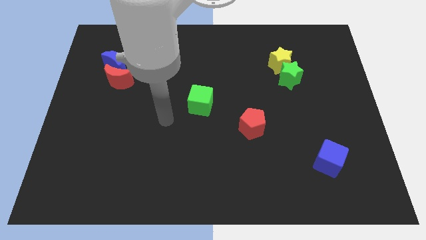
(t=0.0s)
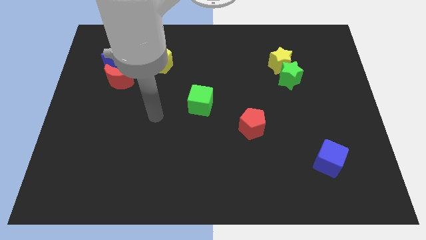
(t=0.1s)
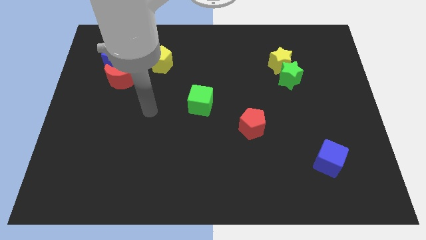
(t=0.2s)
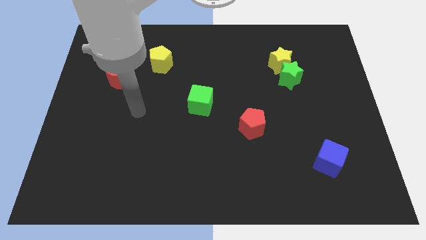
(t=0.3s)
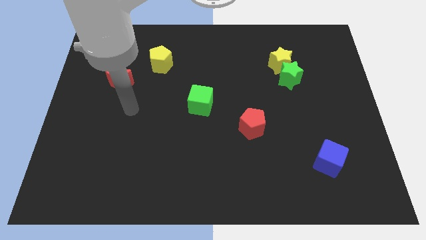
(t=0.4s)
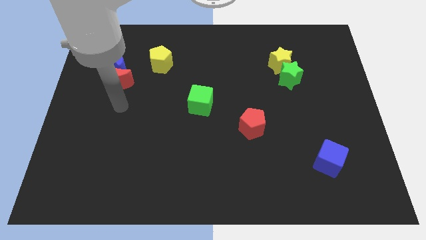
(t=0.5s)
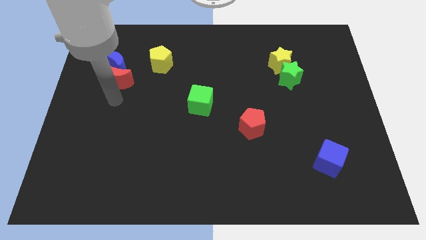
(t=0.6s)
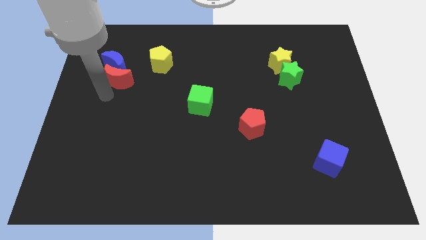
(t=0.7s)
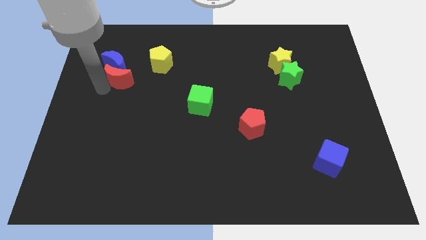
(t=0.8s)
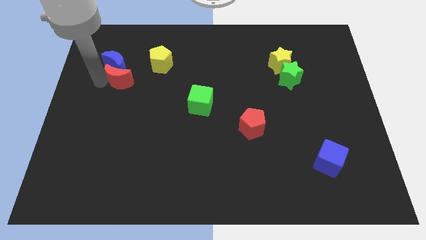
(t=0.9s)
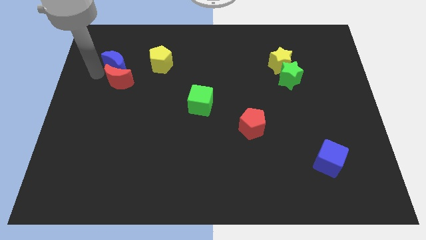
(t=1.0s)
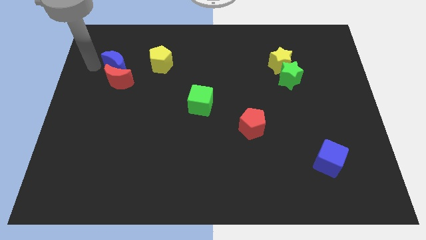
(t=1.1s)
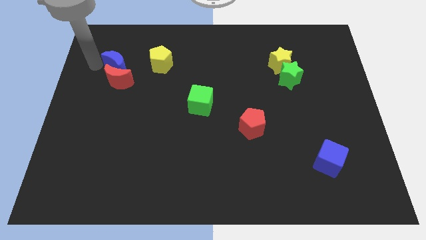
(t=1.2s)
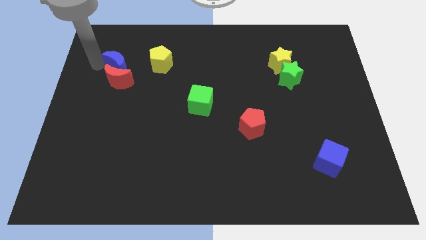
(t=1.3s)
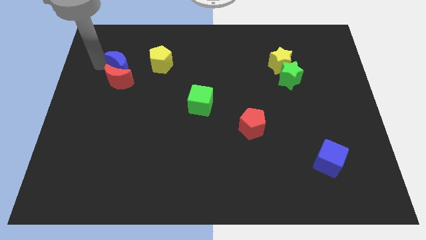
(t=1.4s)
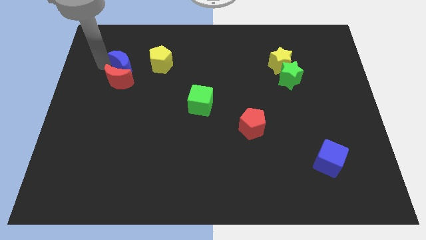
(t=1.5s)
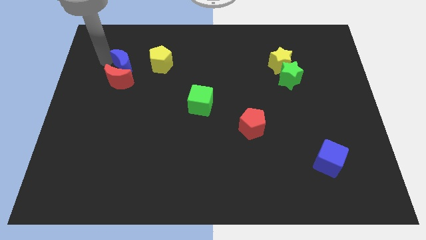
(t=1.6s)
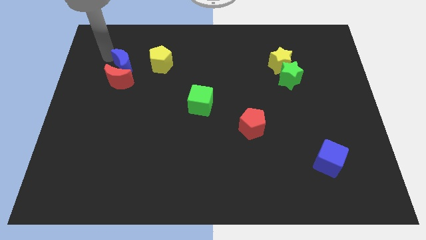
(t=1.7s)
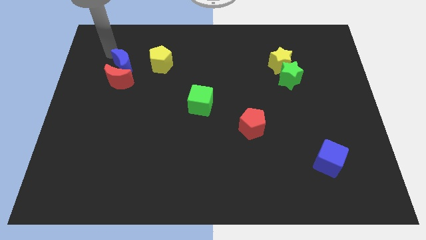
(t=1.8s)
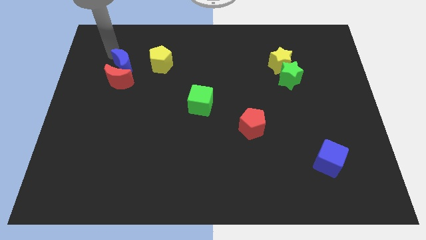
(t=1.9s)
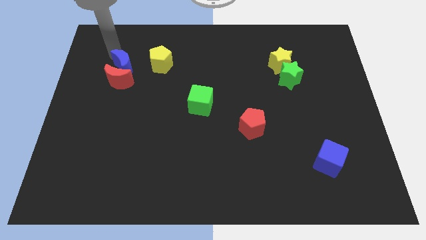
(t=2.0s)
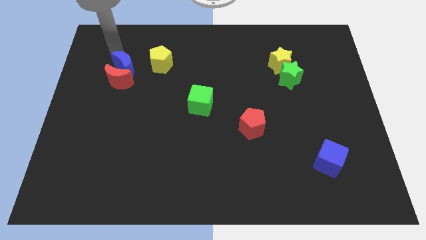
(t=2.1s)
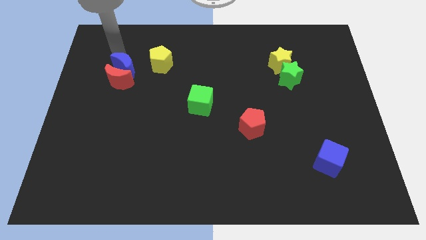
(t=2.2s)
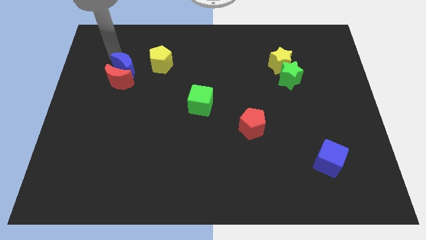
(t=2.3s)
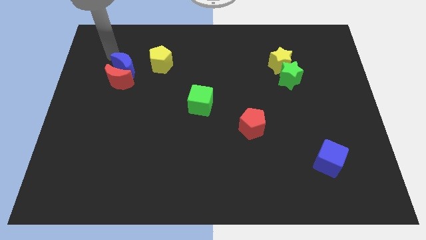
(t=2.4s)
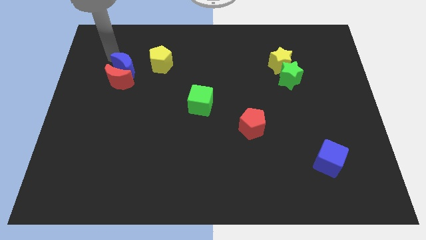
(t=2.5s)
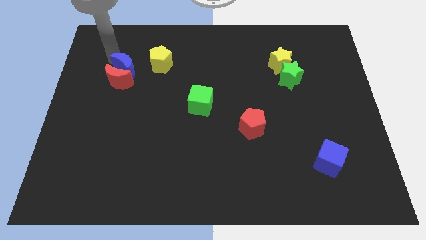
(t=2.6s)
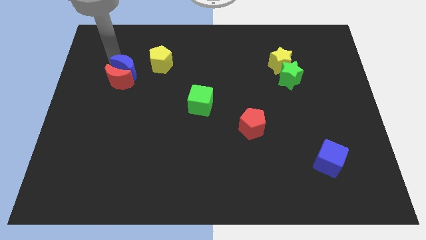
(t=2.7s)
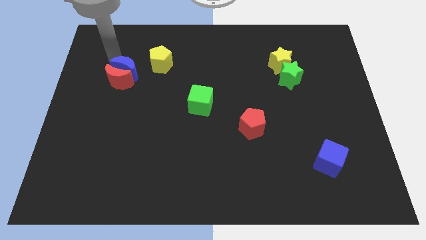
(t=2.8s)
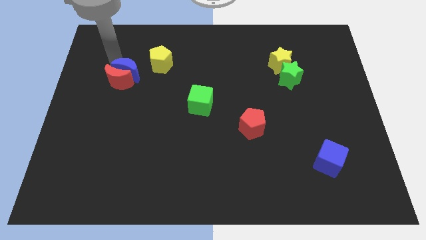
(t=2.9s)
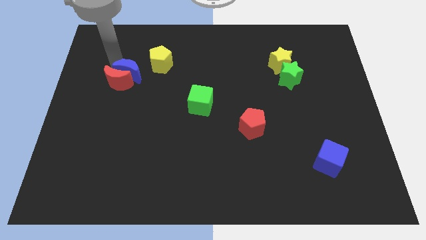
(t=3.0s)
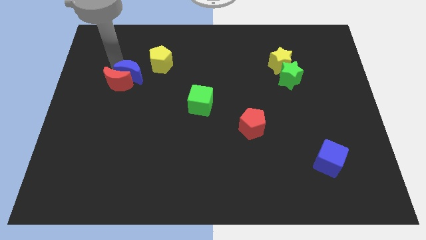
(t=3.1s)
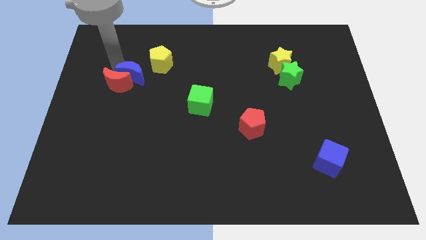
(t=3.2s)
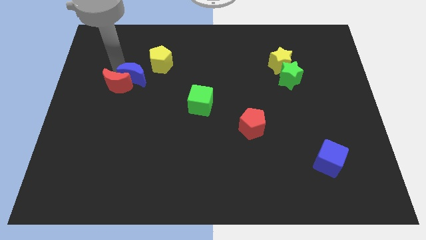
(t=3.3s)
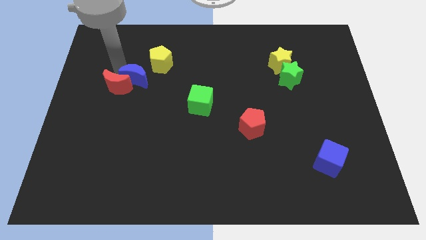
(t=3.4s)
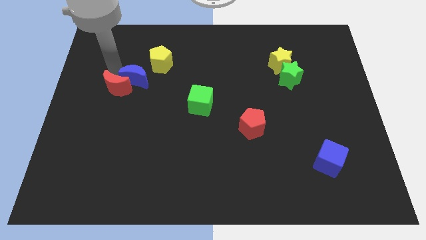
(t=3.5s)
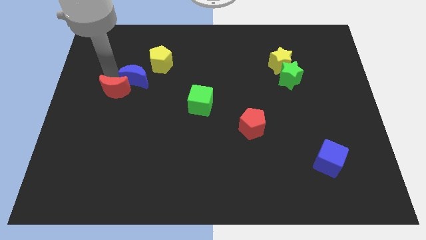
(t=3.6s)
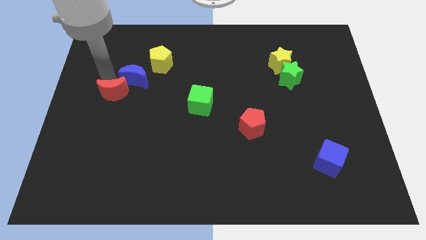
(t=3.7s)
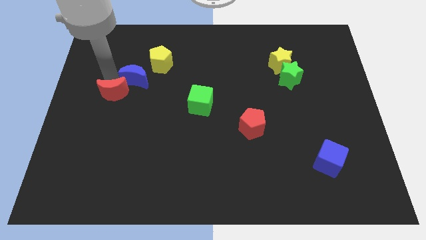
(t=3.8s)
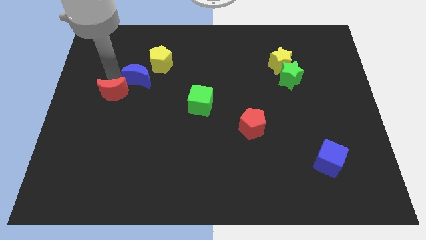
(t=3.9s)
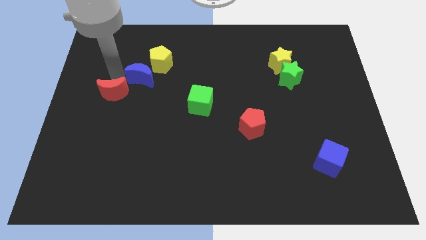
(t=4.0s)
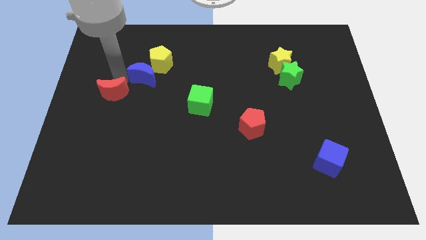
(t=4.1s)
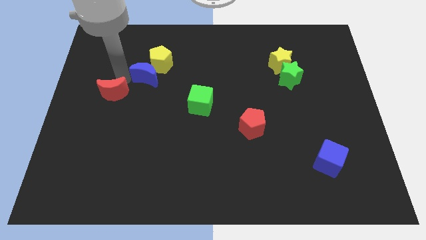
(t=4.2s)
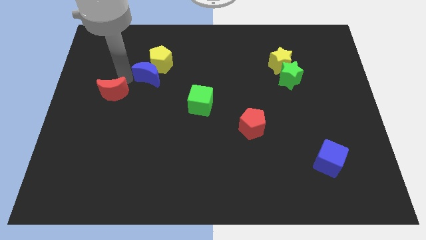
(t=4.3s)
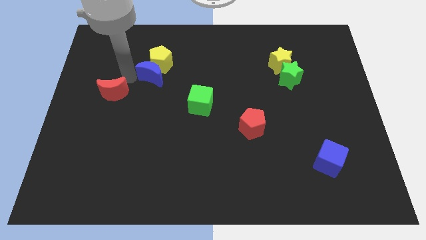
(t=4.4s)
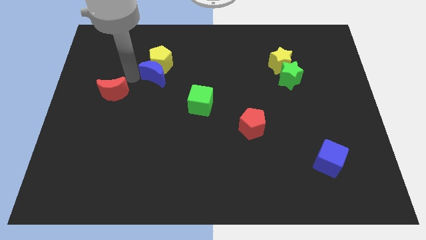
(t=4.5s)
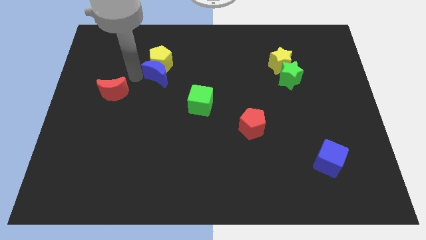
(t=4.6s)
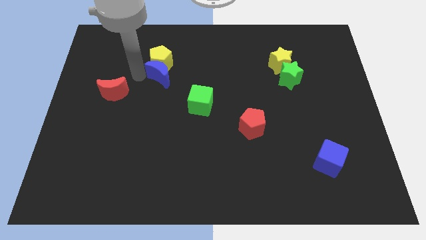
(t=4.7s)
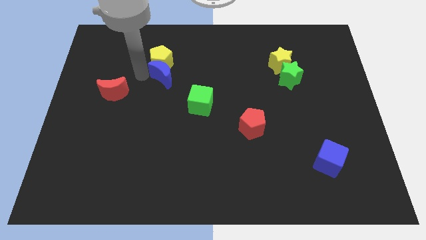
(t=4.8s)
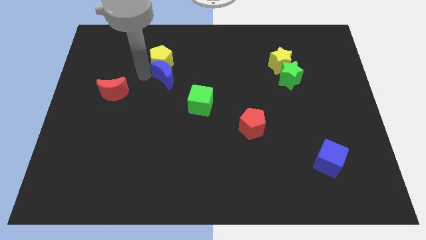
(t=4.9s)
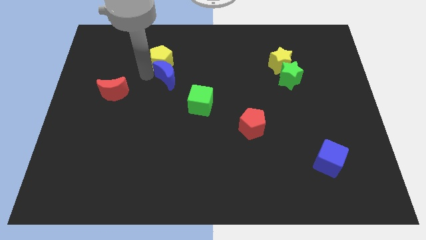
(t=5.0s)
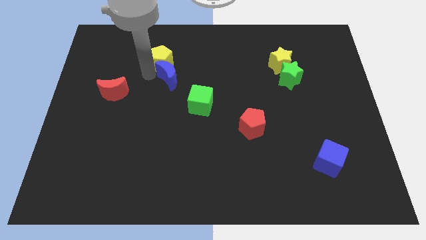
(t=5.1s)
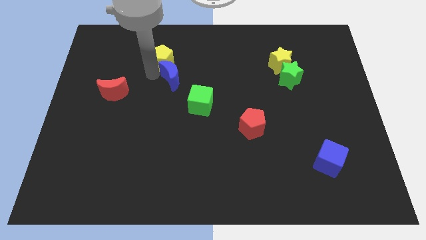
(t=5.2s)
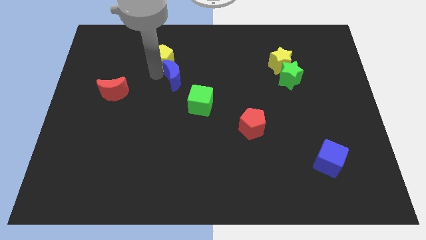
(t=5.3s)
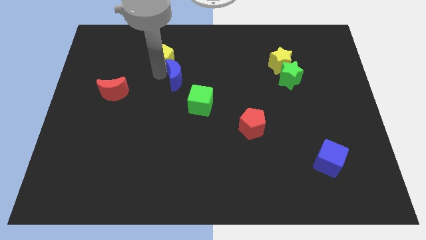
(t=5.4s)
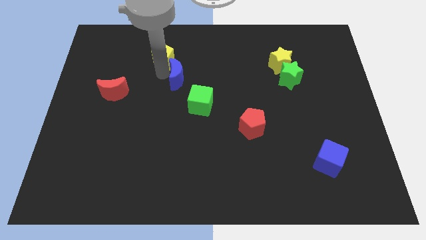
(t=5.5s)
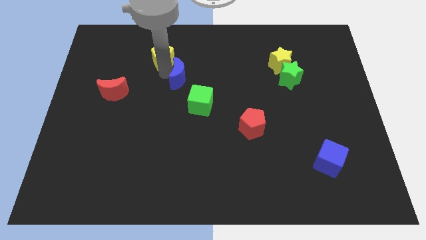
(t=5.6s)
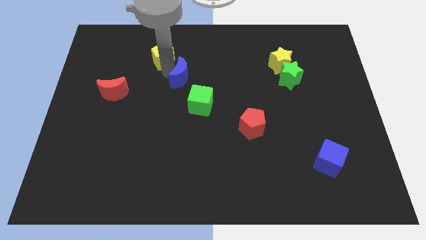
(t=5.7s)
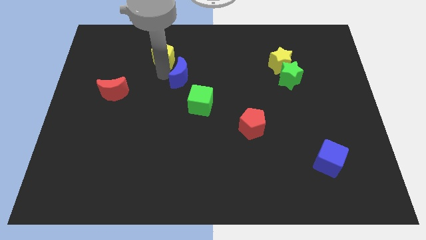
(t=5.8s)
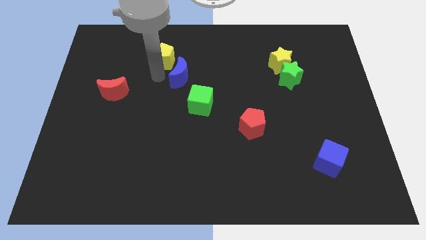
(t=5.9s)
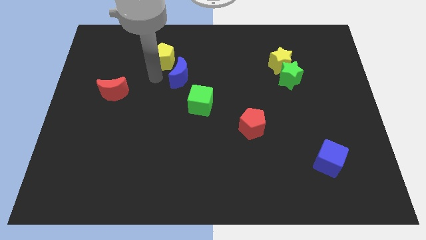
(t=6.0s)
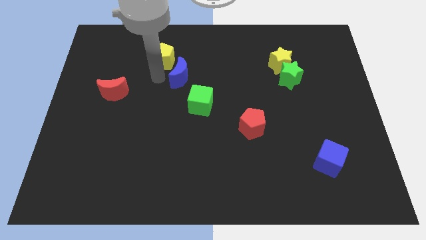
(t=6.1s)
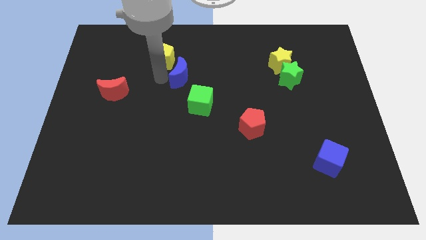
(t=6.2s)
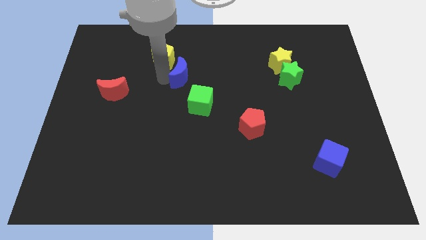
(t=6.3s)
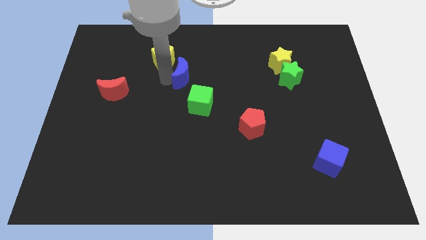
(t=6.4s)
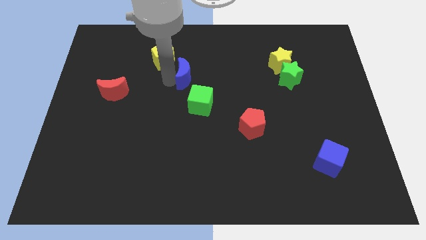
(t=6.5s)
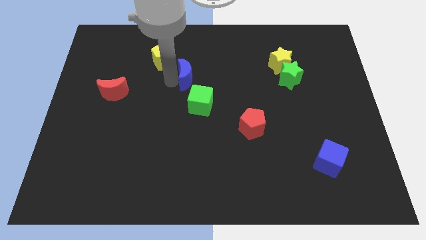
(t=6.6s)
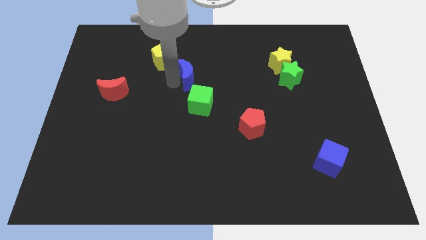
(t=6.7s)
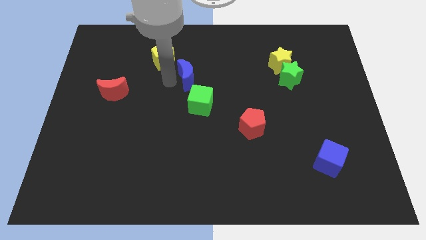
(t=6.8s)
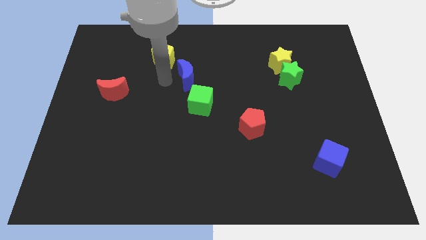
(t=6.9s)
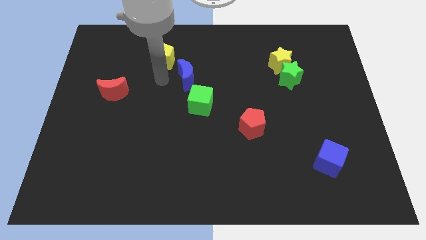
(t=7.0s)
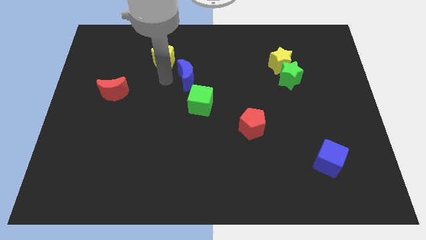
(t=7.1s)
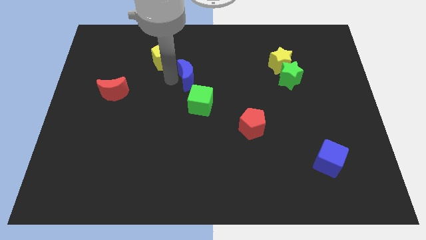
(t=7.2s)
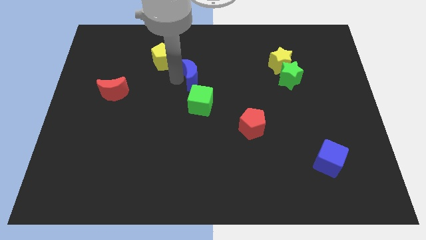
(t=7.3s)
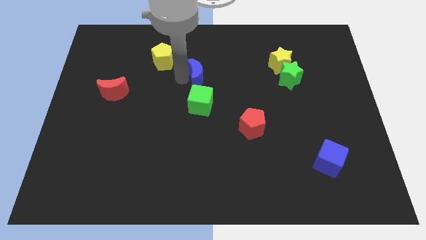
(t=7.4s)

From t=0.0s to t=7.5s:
move the blue moon right

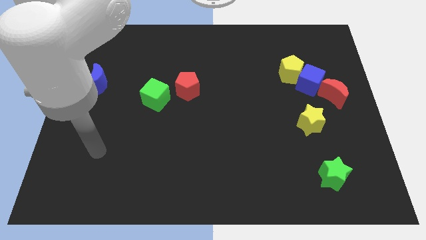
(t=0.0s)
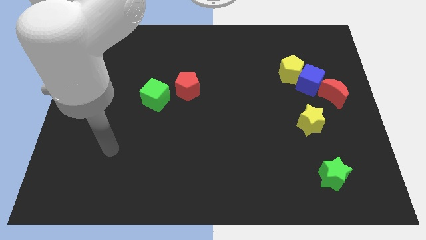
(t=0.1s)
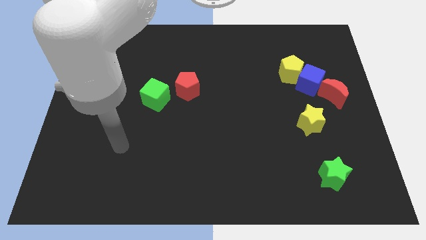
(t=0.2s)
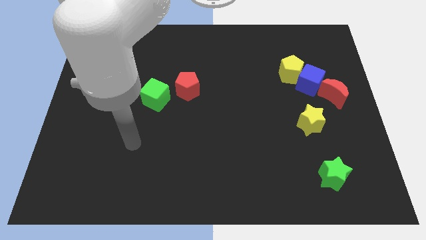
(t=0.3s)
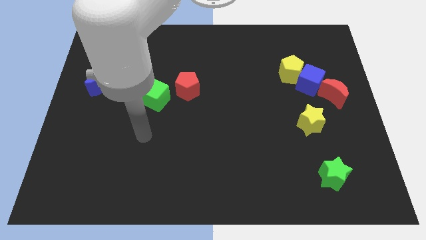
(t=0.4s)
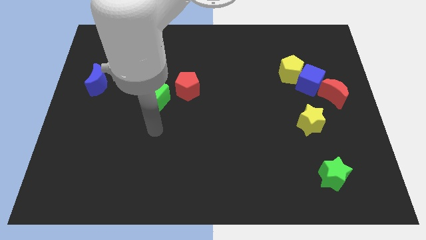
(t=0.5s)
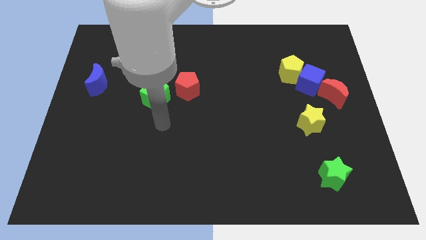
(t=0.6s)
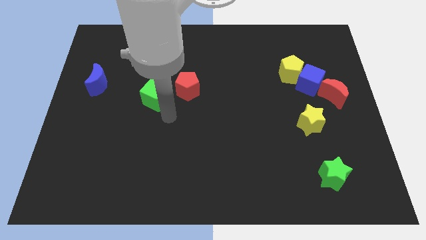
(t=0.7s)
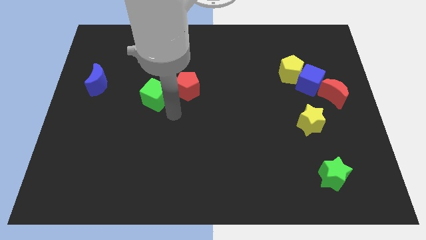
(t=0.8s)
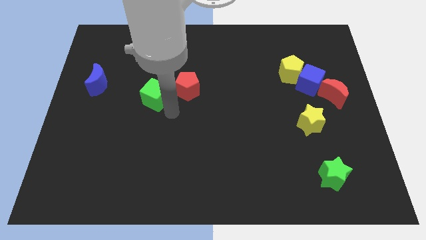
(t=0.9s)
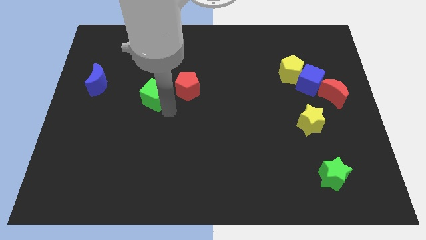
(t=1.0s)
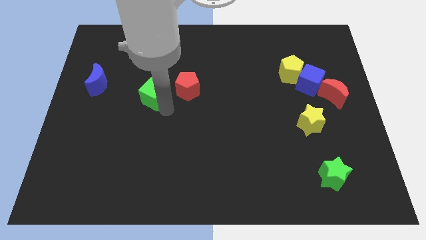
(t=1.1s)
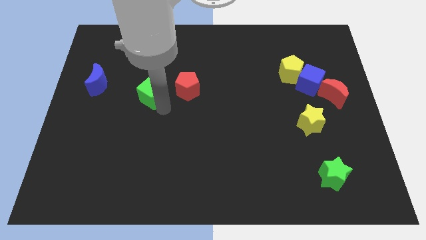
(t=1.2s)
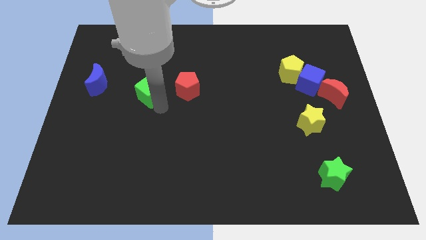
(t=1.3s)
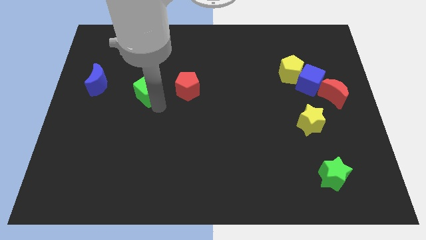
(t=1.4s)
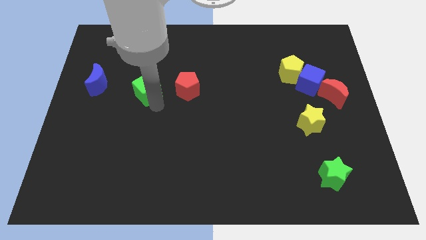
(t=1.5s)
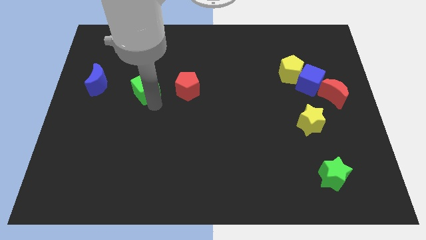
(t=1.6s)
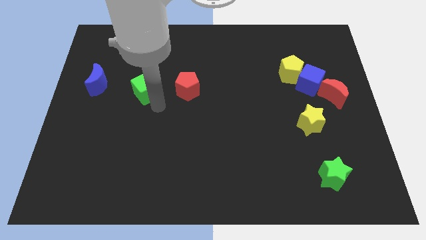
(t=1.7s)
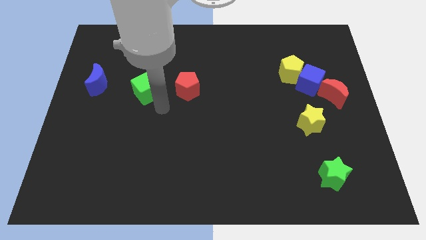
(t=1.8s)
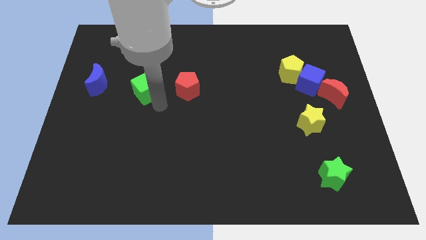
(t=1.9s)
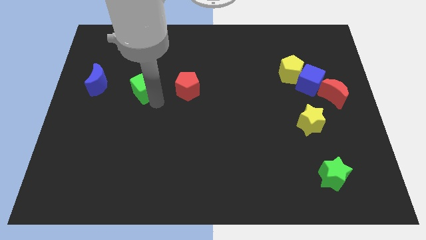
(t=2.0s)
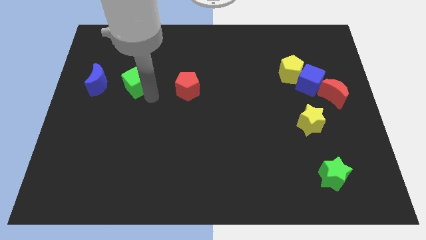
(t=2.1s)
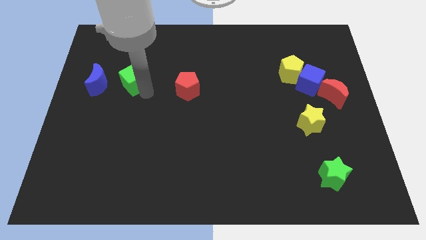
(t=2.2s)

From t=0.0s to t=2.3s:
push the green cube a little bit upwards and left
